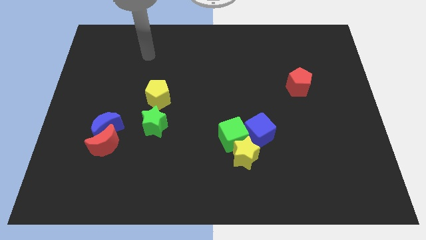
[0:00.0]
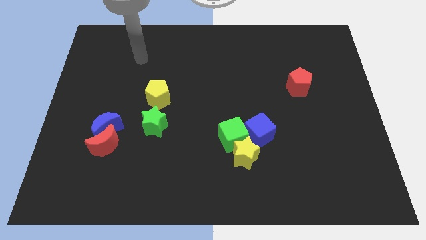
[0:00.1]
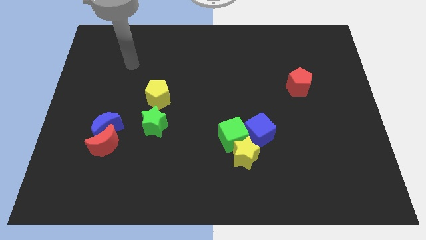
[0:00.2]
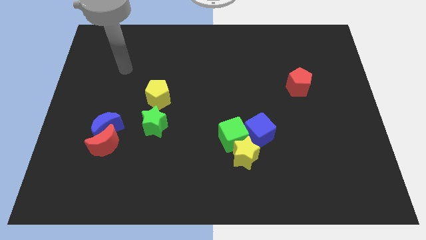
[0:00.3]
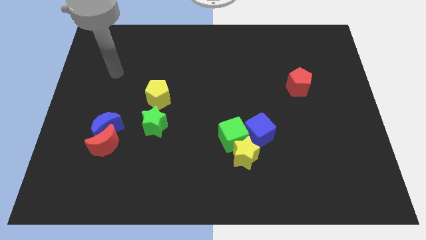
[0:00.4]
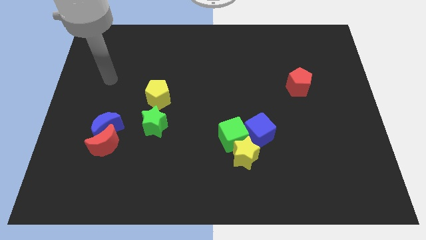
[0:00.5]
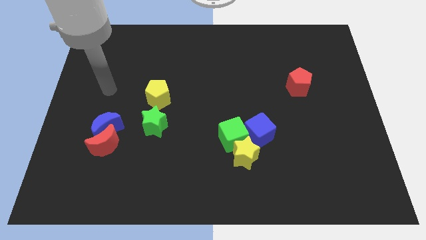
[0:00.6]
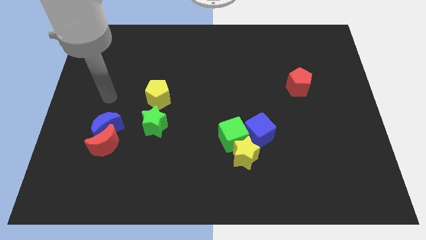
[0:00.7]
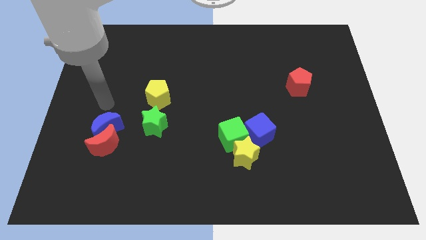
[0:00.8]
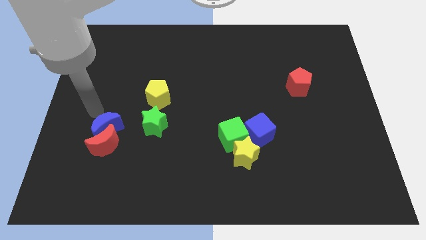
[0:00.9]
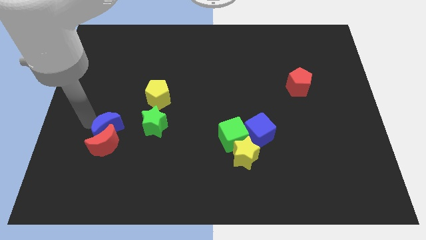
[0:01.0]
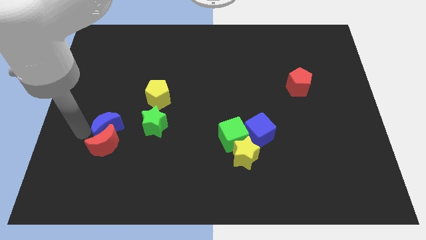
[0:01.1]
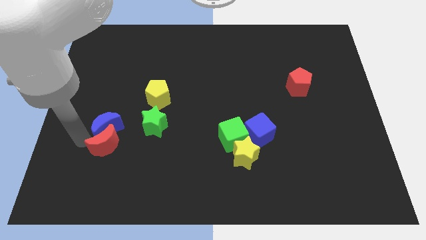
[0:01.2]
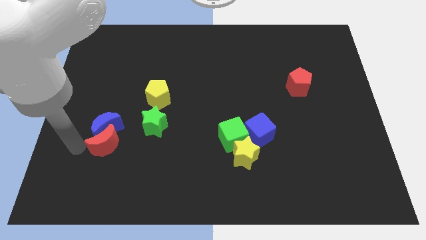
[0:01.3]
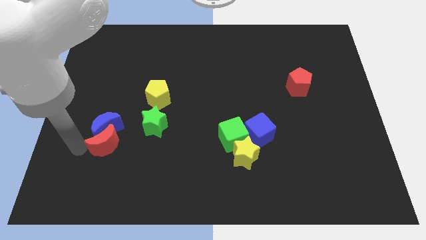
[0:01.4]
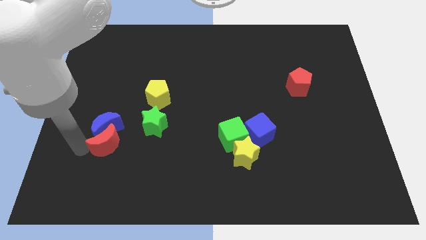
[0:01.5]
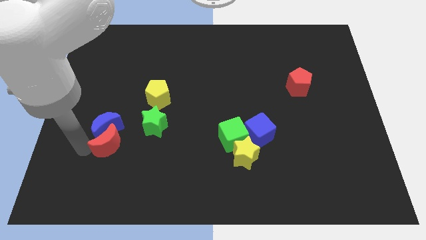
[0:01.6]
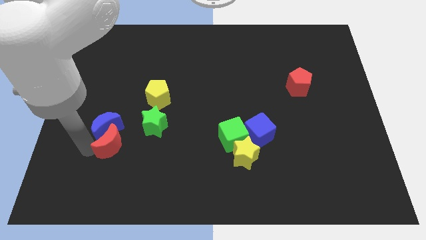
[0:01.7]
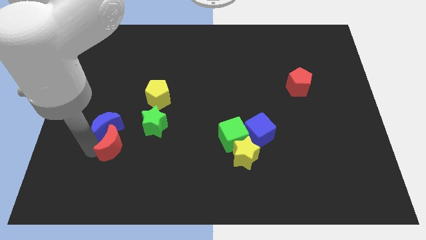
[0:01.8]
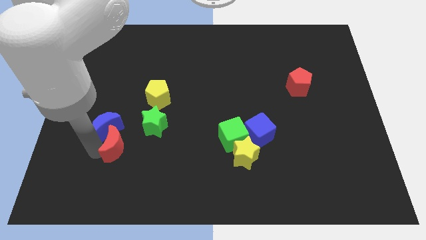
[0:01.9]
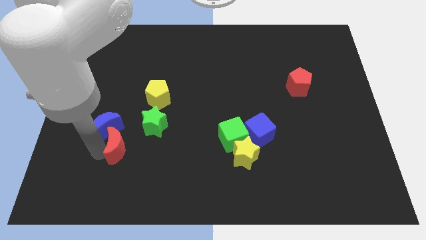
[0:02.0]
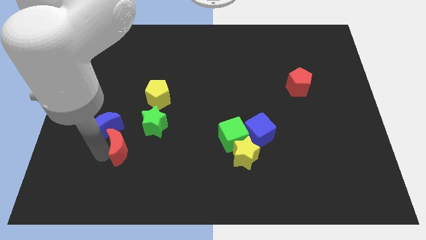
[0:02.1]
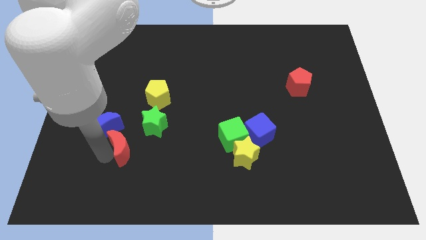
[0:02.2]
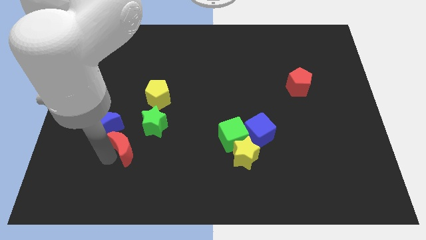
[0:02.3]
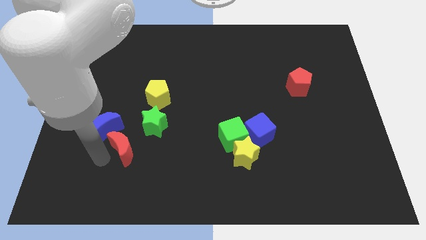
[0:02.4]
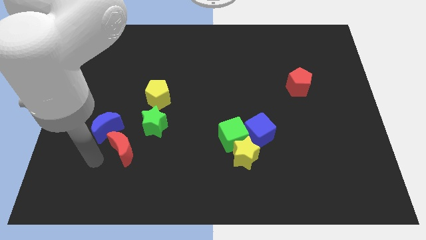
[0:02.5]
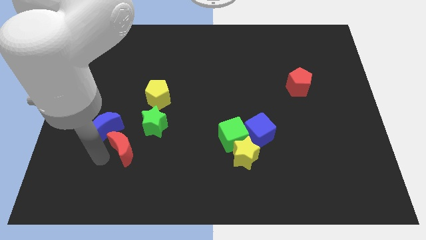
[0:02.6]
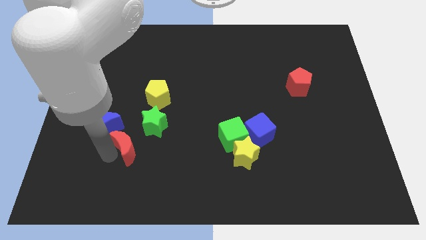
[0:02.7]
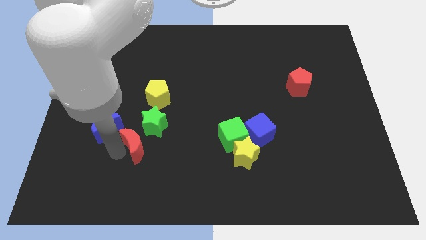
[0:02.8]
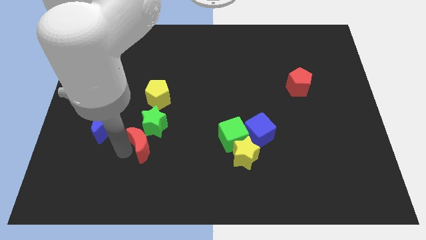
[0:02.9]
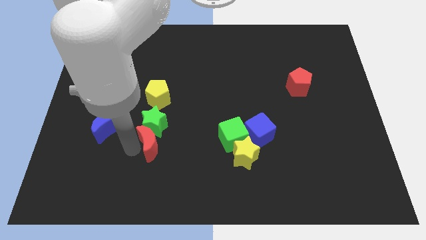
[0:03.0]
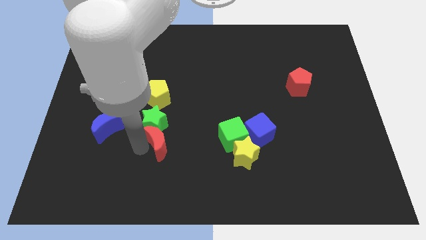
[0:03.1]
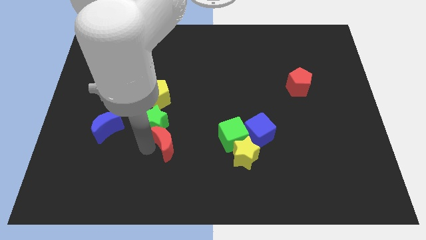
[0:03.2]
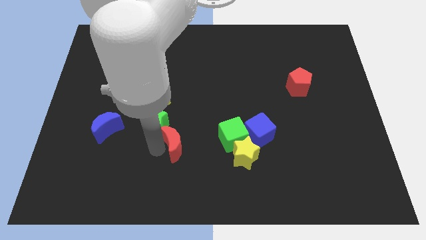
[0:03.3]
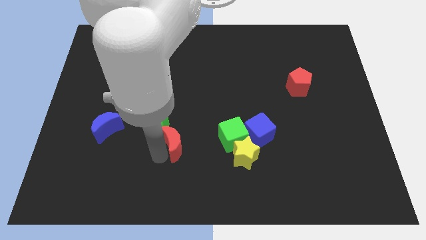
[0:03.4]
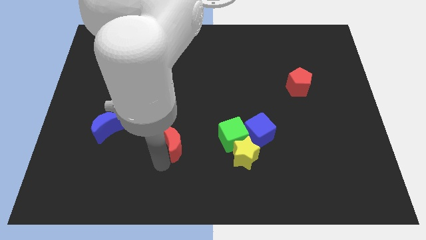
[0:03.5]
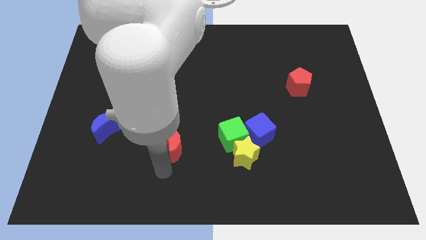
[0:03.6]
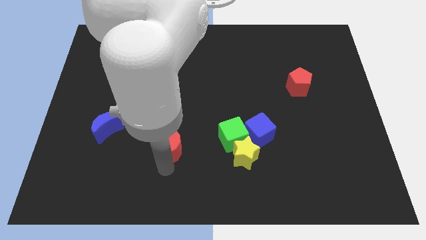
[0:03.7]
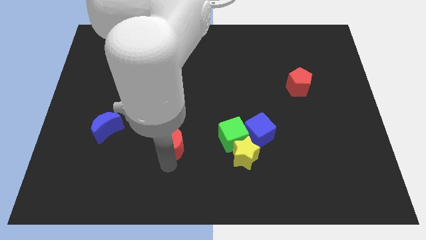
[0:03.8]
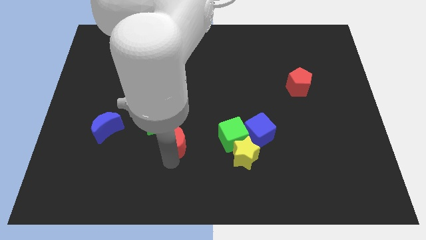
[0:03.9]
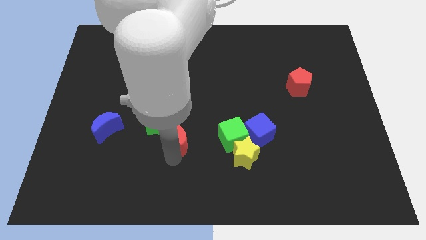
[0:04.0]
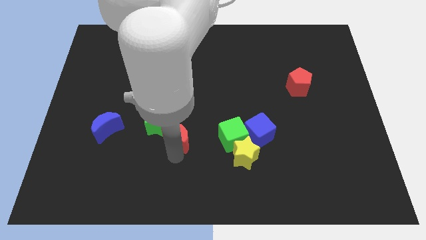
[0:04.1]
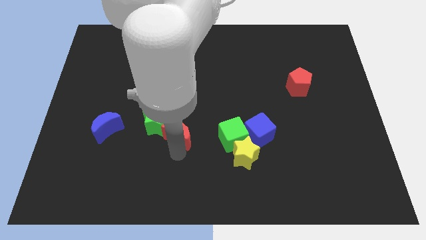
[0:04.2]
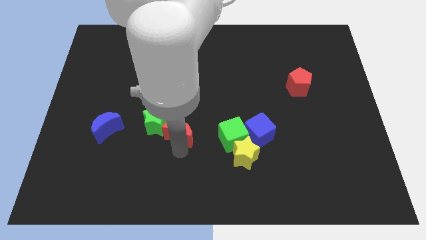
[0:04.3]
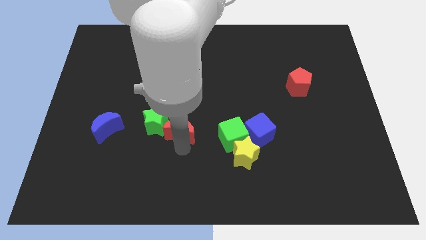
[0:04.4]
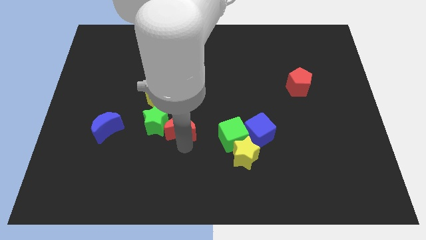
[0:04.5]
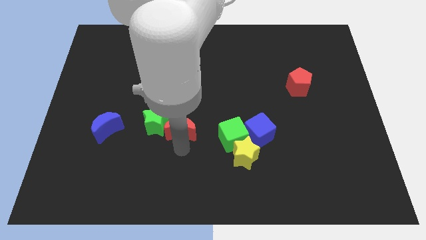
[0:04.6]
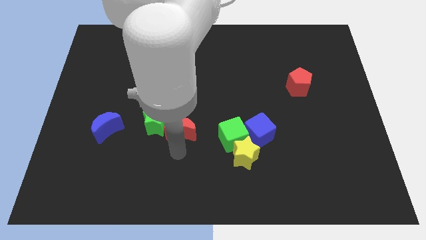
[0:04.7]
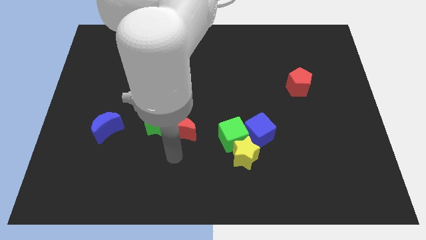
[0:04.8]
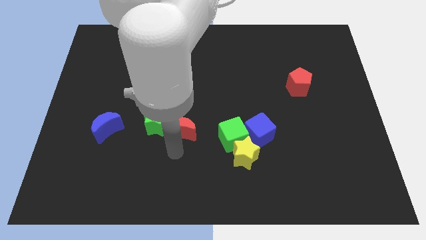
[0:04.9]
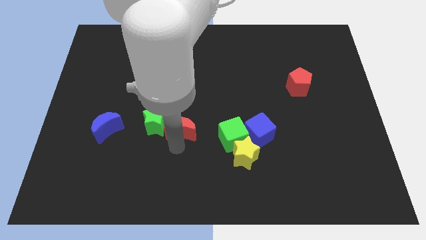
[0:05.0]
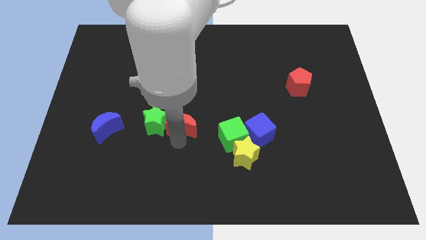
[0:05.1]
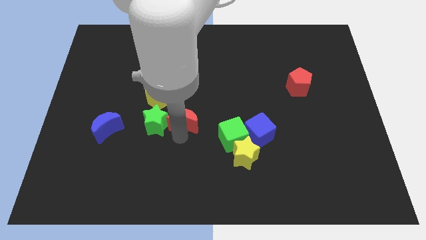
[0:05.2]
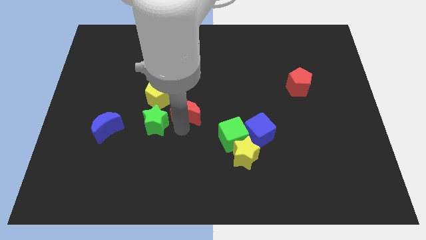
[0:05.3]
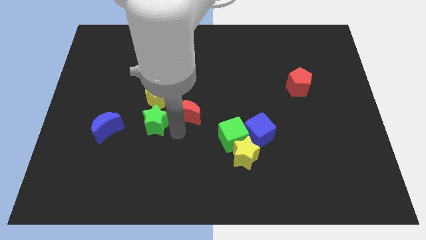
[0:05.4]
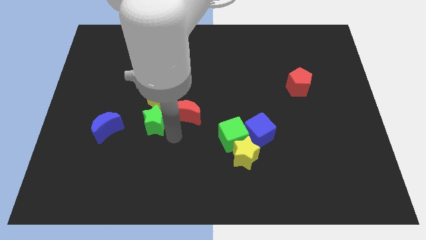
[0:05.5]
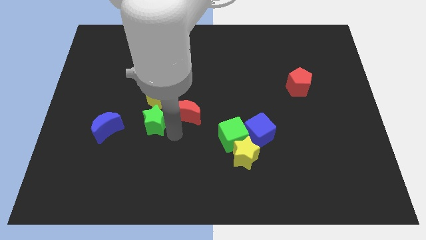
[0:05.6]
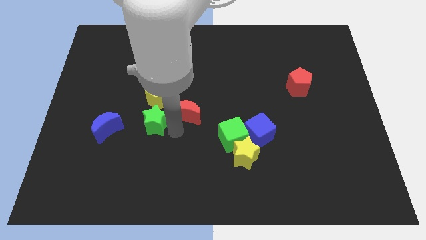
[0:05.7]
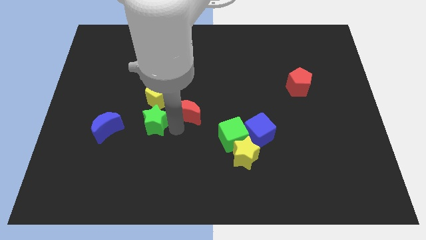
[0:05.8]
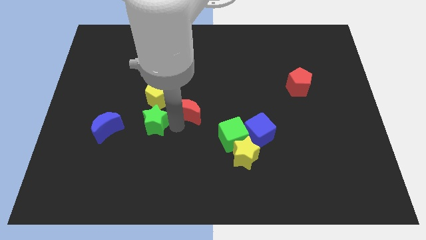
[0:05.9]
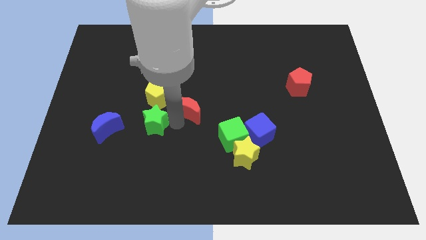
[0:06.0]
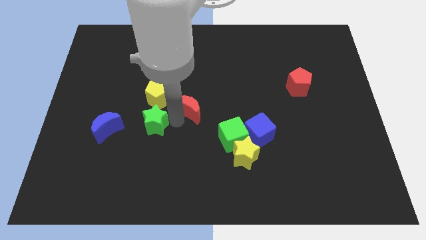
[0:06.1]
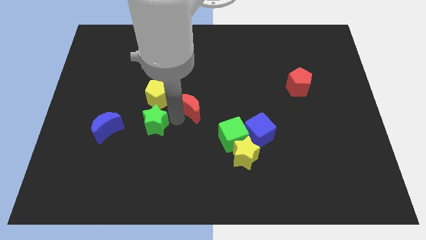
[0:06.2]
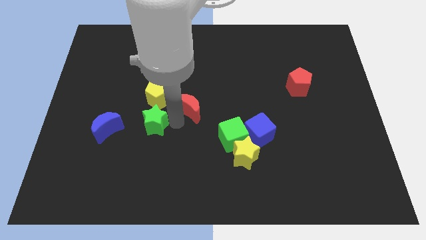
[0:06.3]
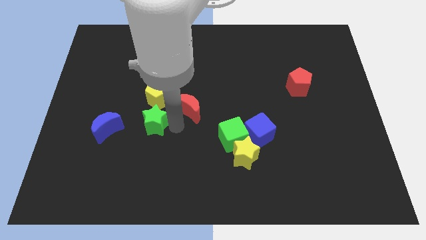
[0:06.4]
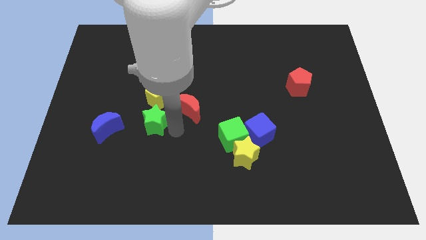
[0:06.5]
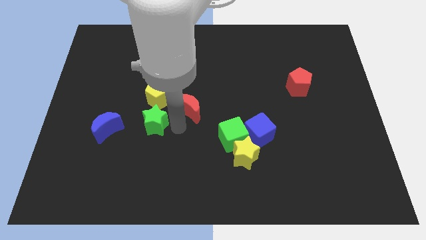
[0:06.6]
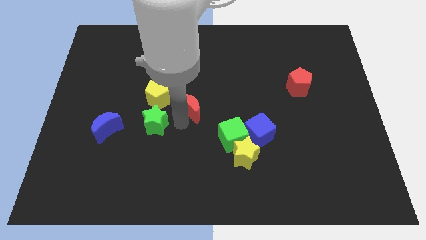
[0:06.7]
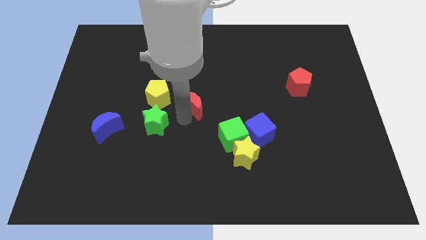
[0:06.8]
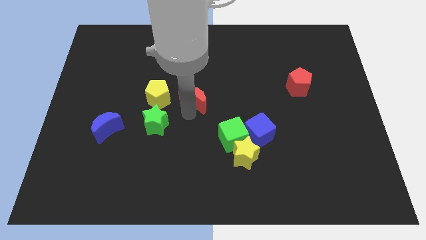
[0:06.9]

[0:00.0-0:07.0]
slide the red moon upwards and to the right diagonally

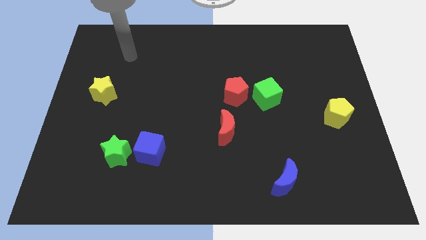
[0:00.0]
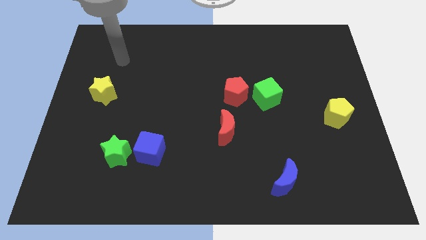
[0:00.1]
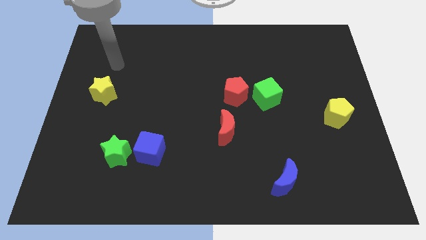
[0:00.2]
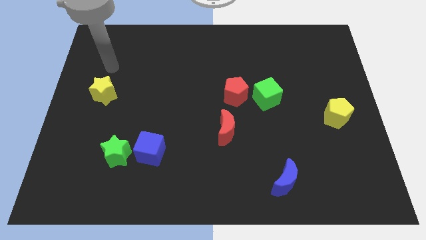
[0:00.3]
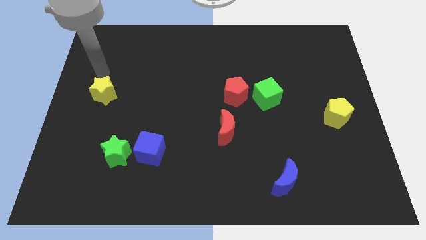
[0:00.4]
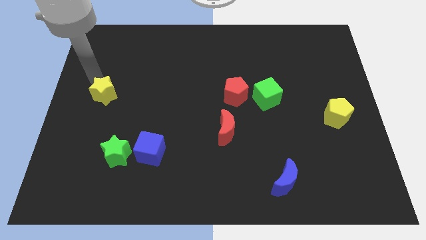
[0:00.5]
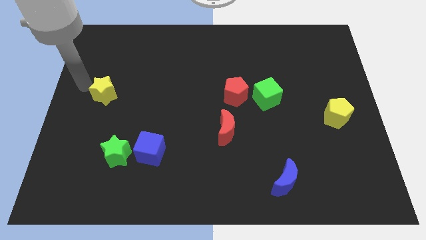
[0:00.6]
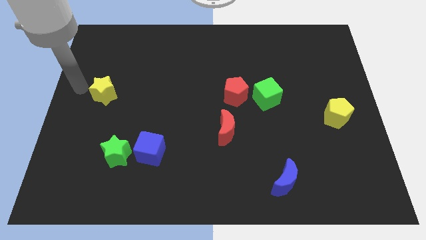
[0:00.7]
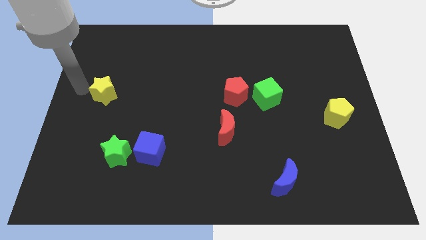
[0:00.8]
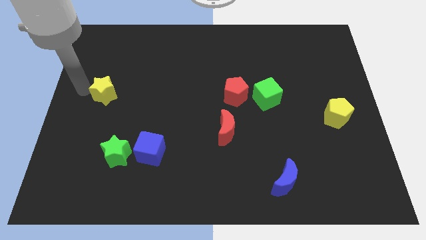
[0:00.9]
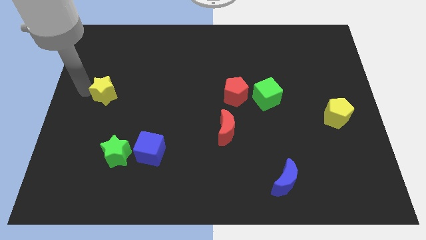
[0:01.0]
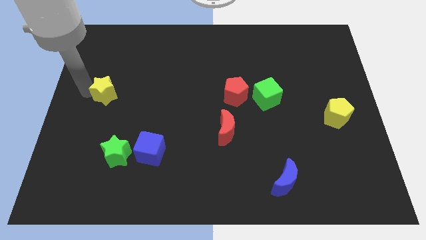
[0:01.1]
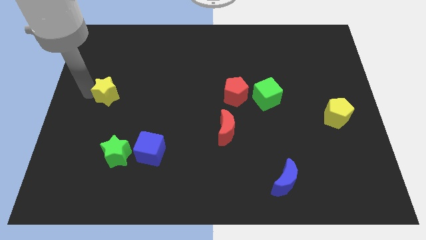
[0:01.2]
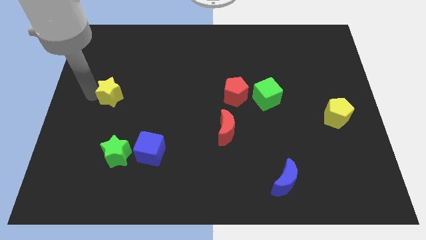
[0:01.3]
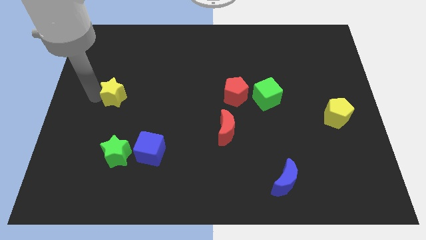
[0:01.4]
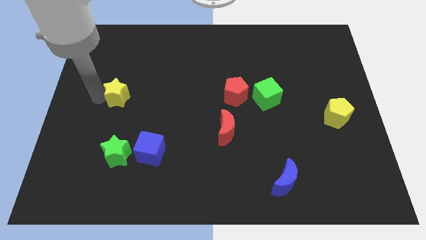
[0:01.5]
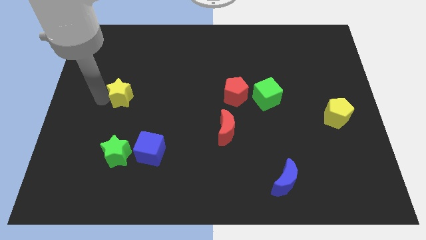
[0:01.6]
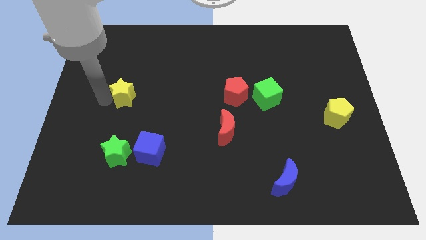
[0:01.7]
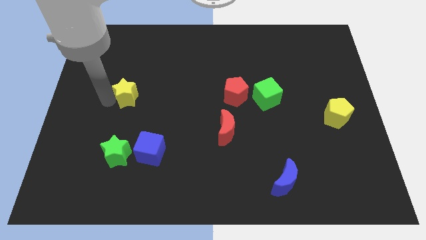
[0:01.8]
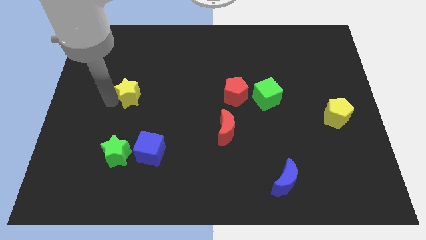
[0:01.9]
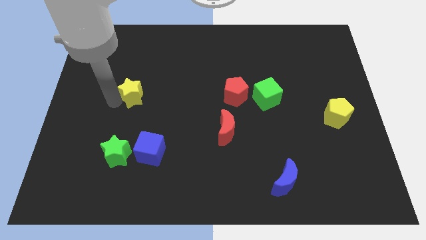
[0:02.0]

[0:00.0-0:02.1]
push the yellow star right a little bit
